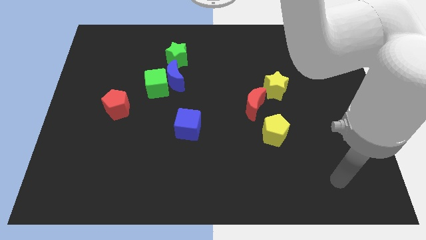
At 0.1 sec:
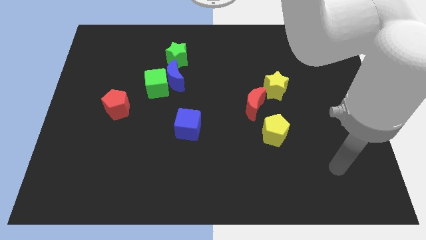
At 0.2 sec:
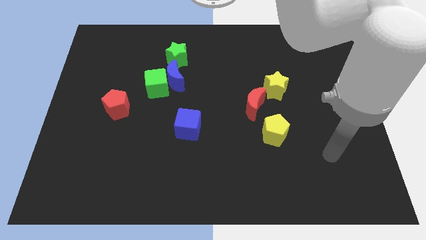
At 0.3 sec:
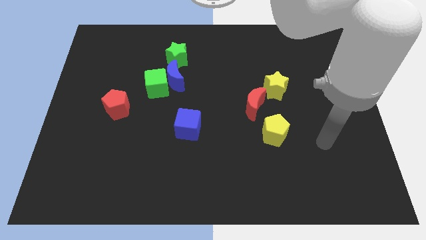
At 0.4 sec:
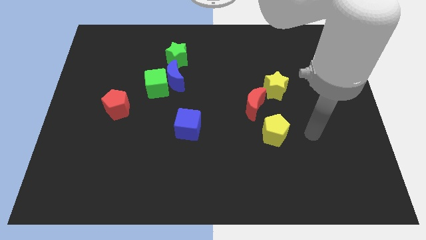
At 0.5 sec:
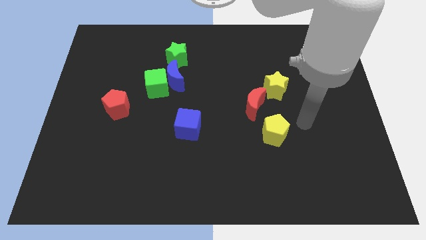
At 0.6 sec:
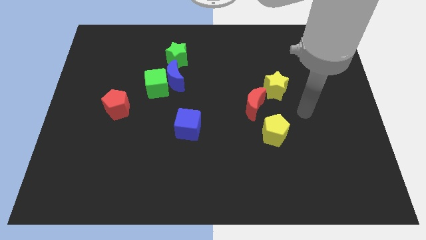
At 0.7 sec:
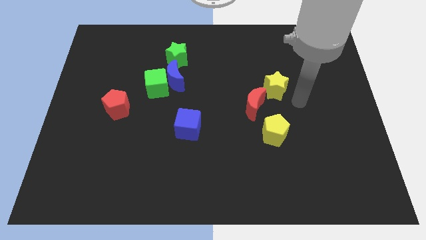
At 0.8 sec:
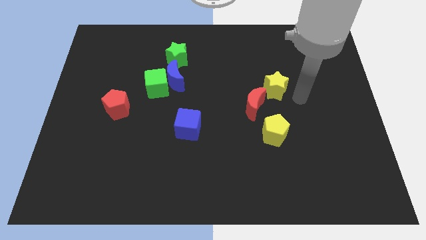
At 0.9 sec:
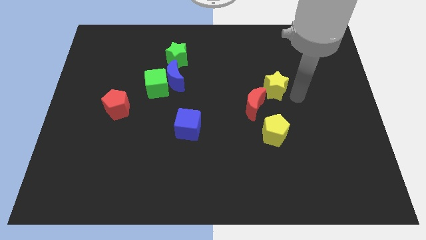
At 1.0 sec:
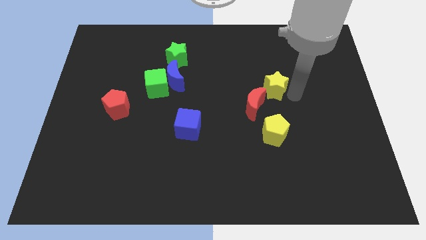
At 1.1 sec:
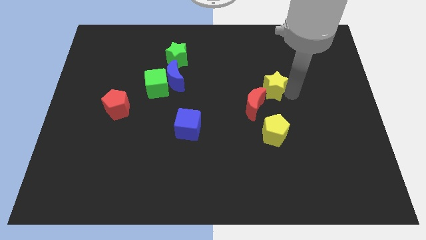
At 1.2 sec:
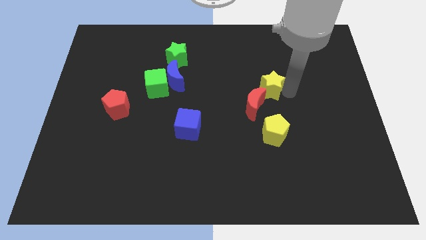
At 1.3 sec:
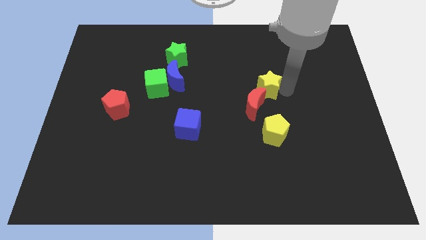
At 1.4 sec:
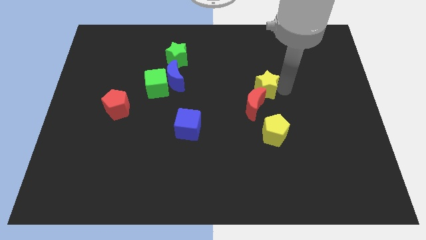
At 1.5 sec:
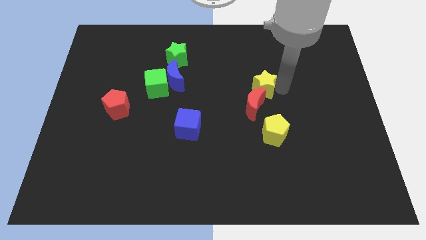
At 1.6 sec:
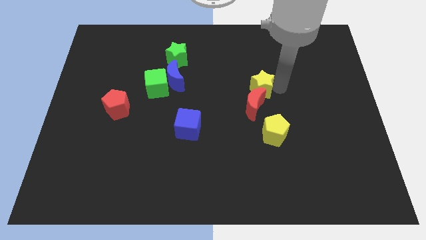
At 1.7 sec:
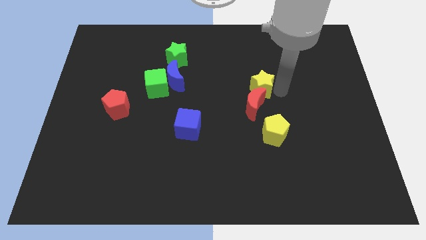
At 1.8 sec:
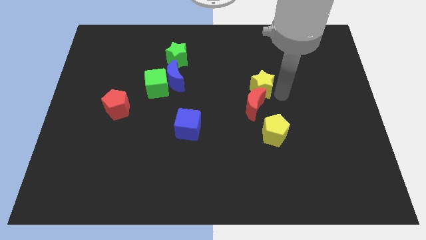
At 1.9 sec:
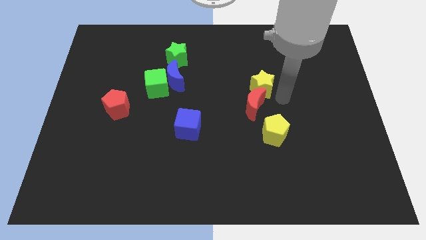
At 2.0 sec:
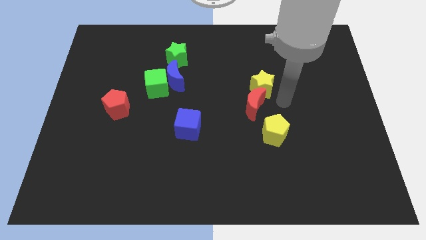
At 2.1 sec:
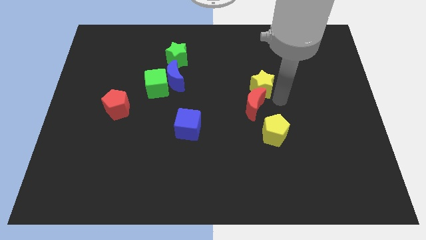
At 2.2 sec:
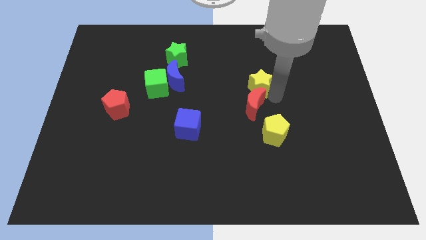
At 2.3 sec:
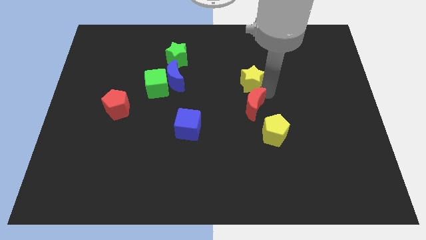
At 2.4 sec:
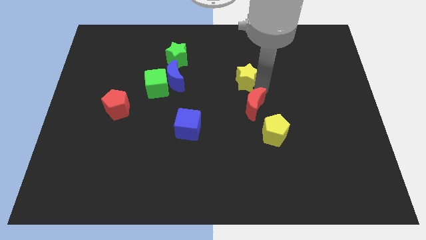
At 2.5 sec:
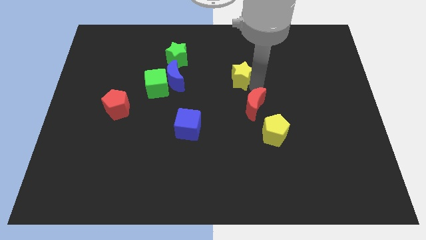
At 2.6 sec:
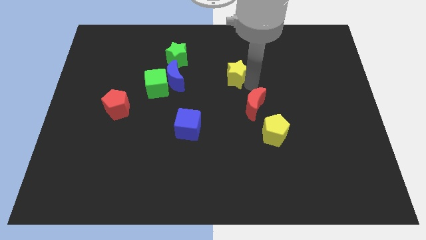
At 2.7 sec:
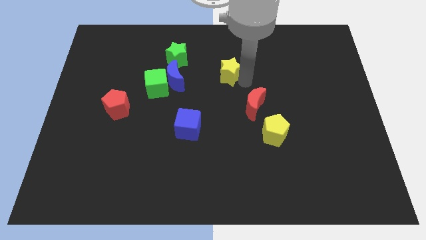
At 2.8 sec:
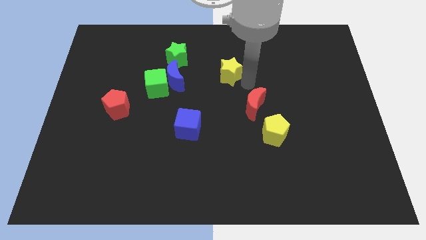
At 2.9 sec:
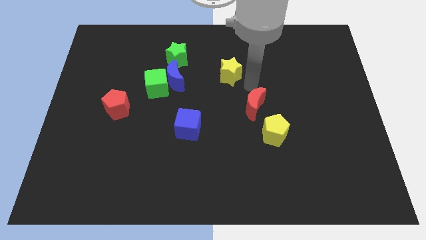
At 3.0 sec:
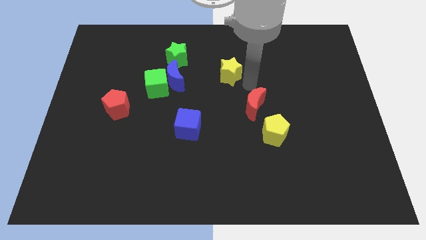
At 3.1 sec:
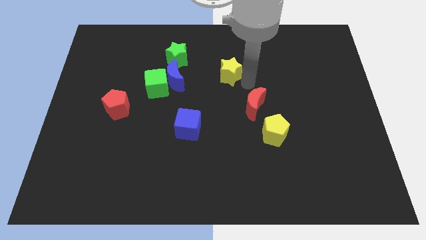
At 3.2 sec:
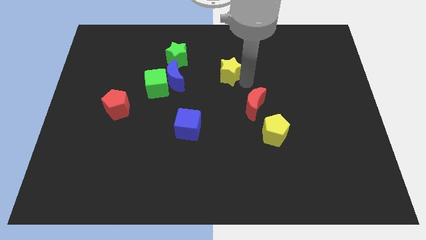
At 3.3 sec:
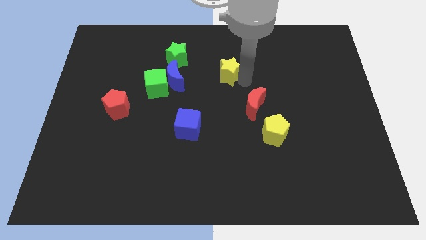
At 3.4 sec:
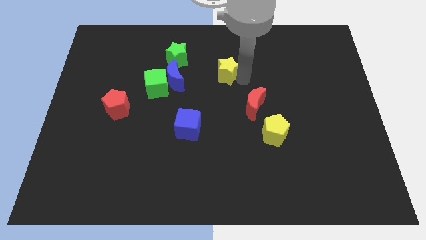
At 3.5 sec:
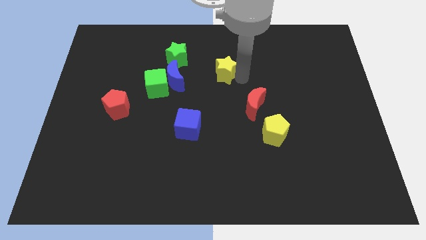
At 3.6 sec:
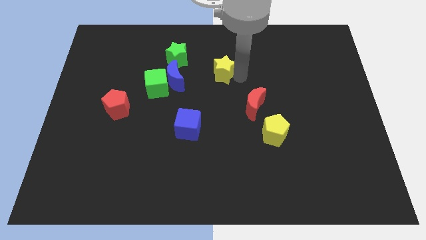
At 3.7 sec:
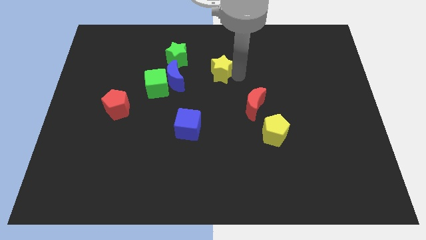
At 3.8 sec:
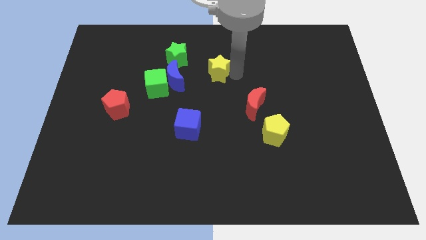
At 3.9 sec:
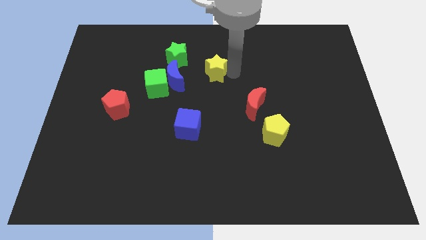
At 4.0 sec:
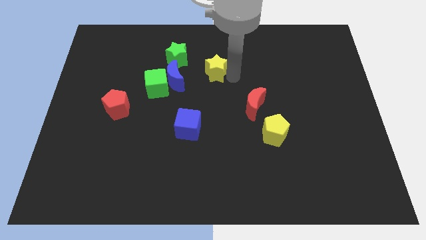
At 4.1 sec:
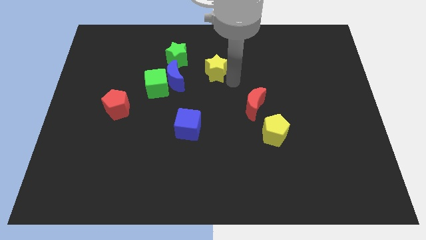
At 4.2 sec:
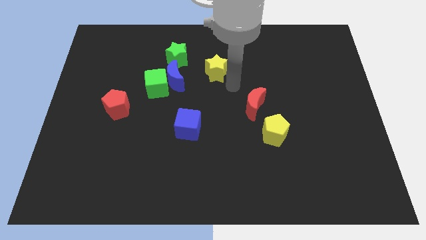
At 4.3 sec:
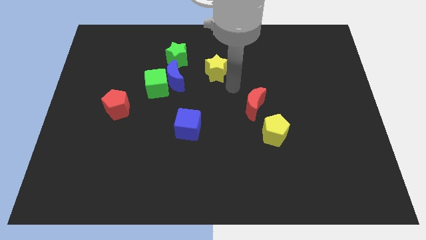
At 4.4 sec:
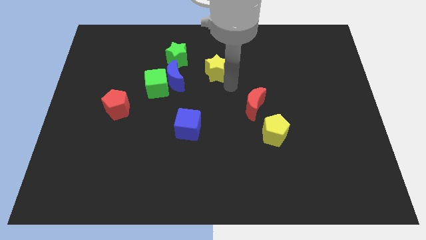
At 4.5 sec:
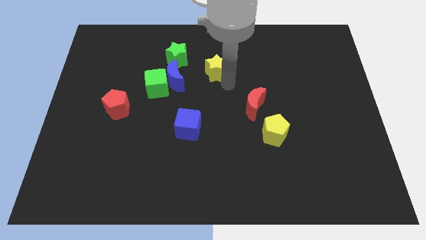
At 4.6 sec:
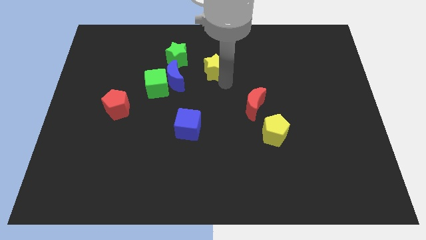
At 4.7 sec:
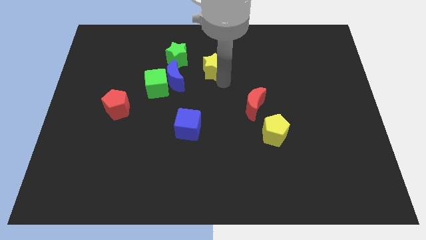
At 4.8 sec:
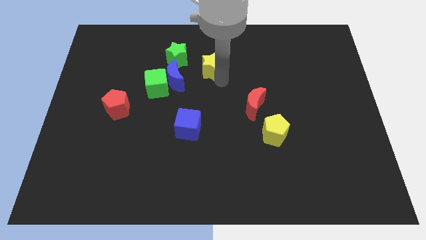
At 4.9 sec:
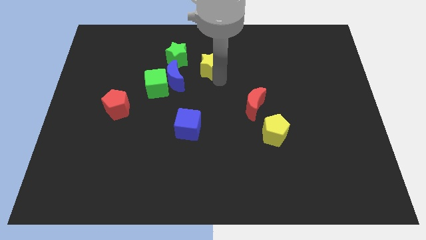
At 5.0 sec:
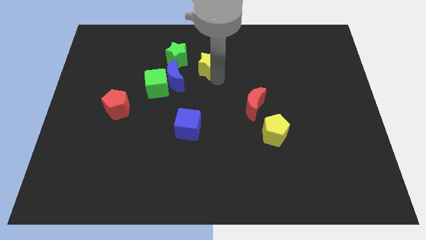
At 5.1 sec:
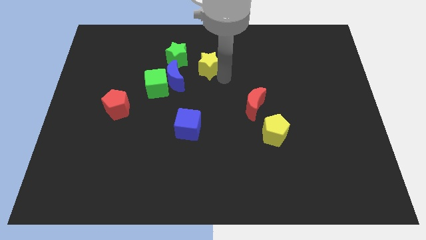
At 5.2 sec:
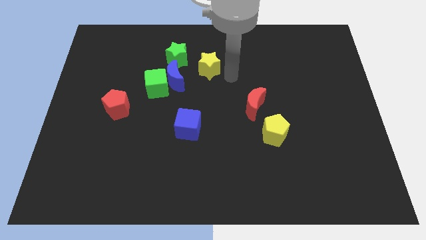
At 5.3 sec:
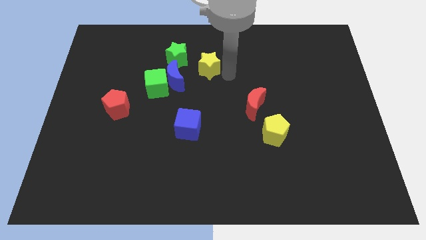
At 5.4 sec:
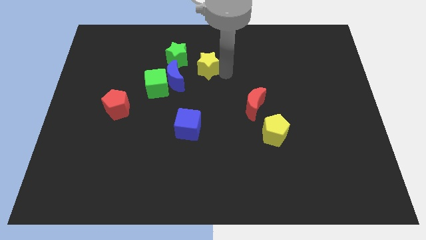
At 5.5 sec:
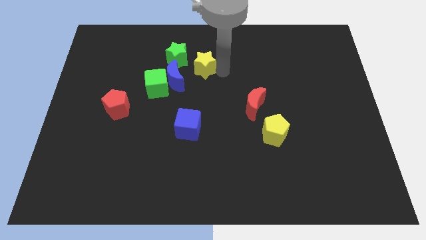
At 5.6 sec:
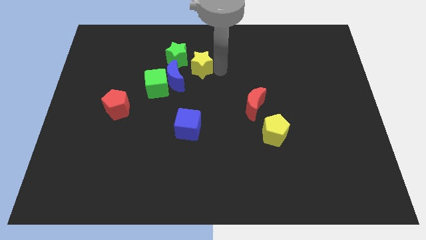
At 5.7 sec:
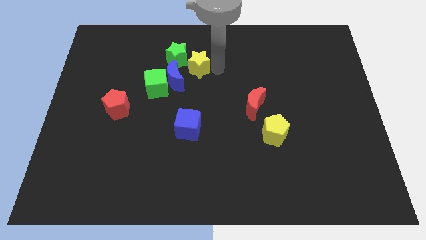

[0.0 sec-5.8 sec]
slide the yellow star to the green star

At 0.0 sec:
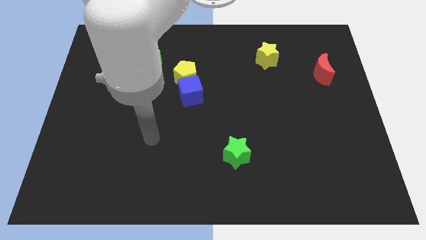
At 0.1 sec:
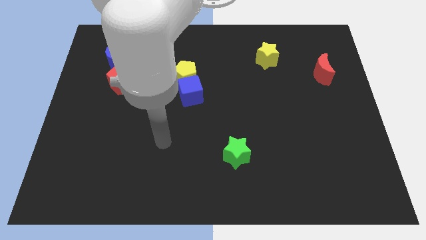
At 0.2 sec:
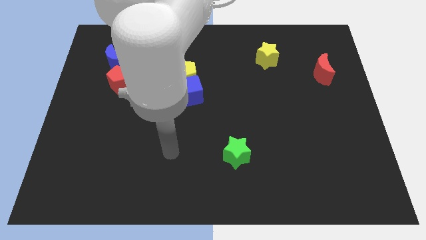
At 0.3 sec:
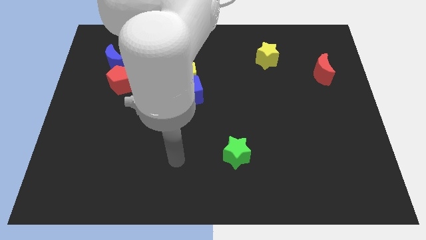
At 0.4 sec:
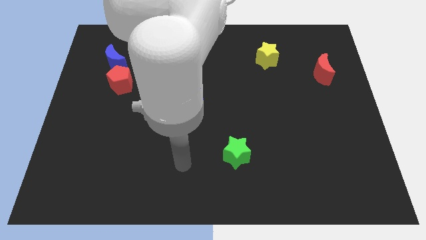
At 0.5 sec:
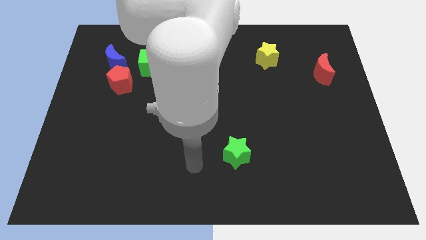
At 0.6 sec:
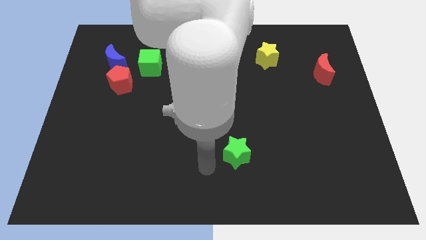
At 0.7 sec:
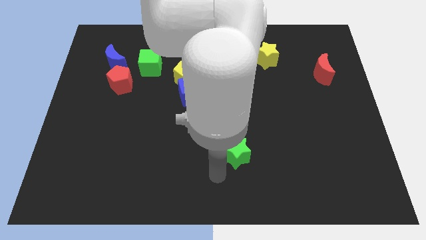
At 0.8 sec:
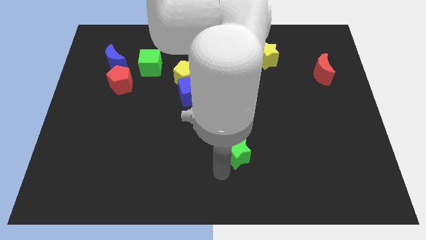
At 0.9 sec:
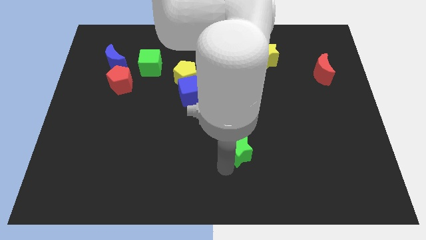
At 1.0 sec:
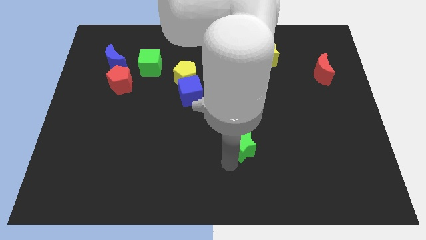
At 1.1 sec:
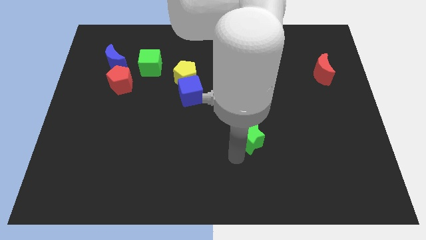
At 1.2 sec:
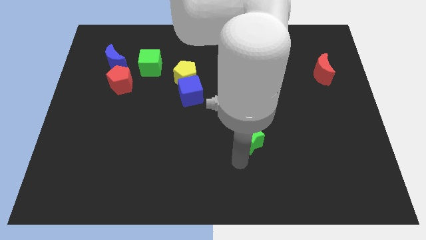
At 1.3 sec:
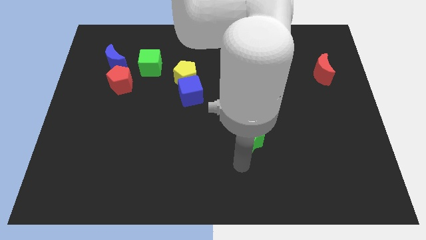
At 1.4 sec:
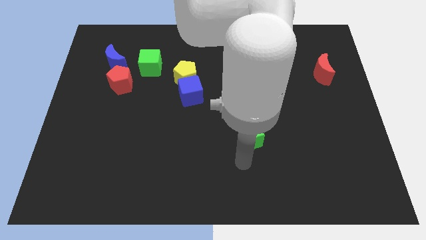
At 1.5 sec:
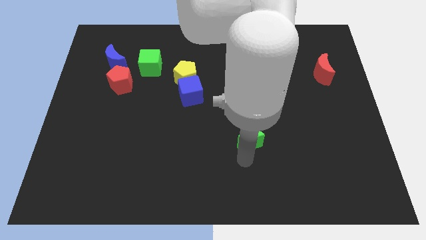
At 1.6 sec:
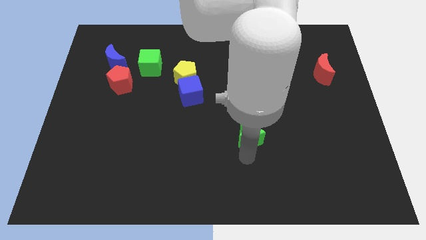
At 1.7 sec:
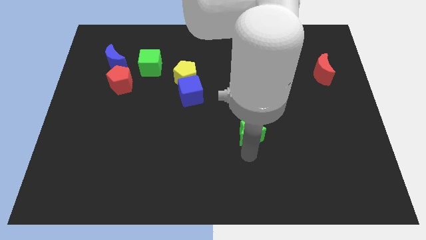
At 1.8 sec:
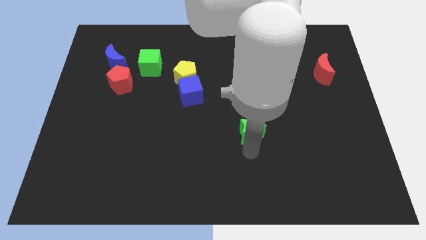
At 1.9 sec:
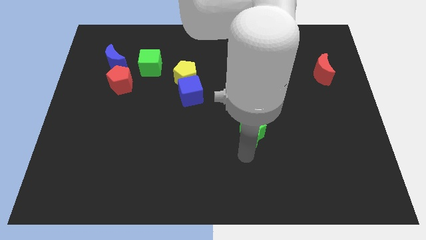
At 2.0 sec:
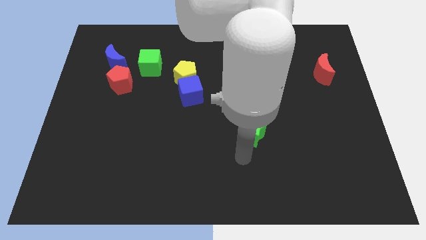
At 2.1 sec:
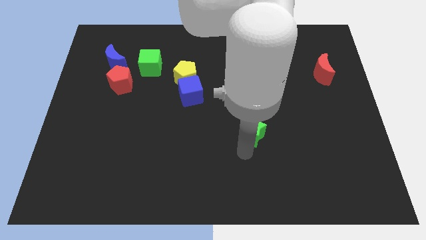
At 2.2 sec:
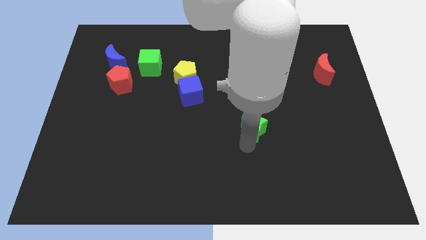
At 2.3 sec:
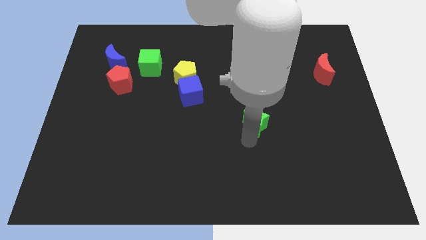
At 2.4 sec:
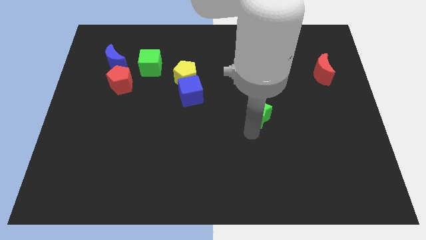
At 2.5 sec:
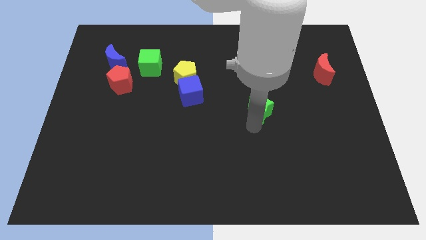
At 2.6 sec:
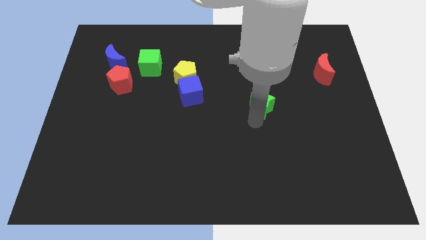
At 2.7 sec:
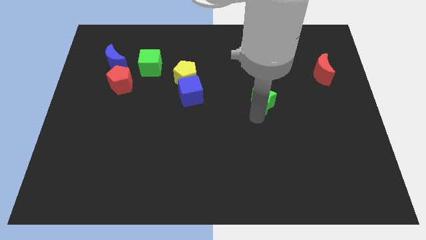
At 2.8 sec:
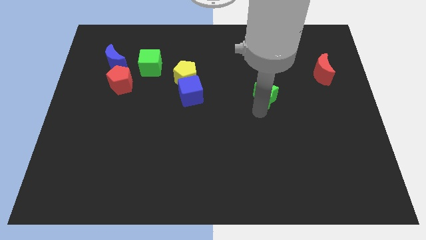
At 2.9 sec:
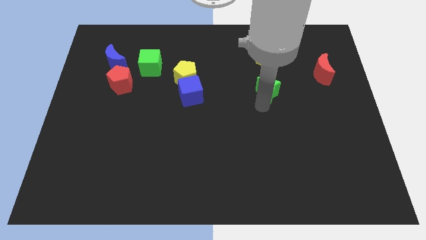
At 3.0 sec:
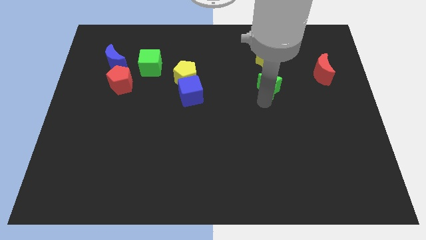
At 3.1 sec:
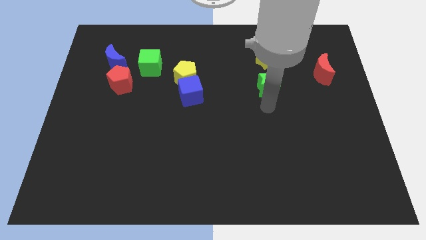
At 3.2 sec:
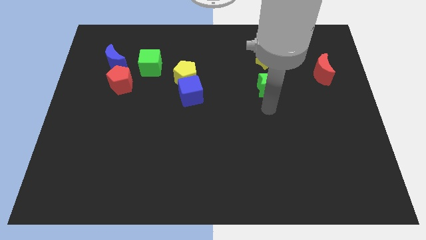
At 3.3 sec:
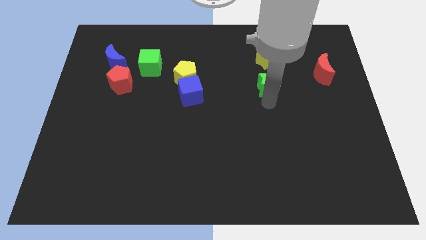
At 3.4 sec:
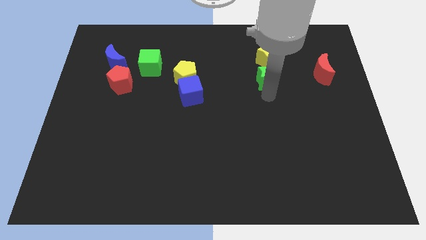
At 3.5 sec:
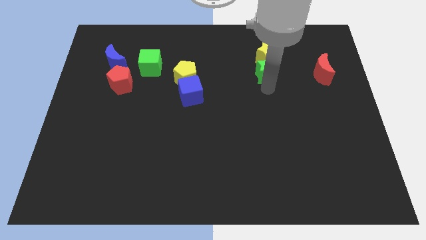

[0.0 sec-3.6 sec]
slide the green star to the yellow star
